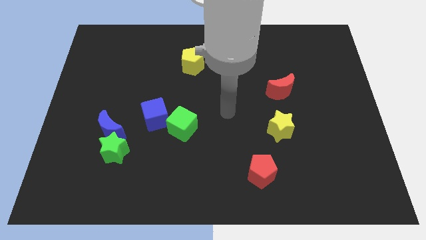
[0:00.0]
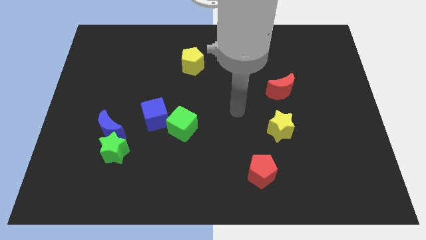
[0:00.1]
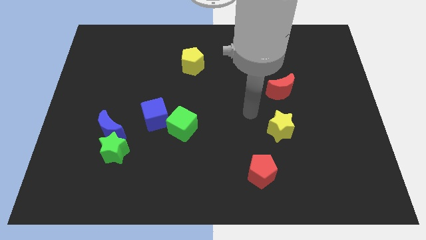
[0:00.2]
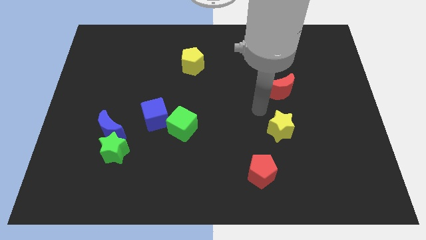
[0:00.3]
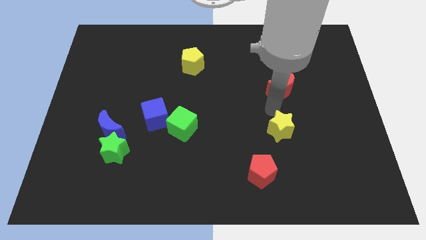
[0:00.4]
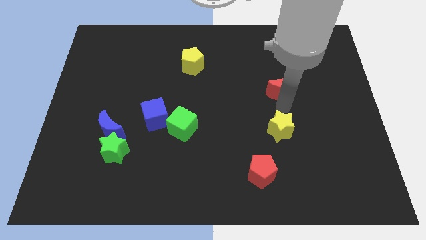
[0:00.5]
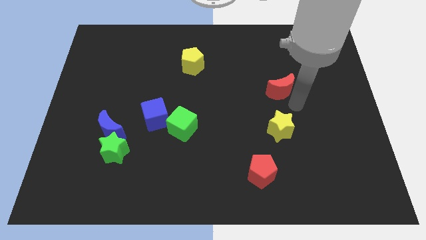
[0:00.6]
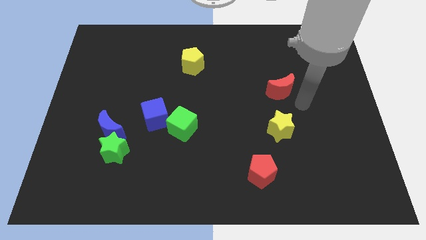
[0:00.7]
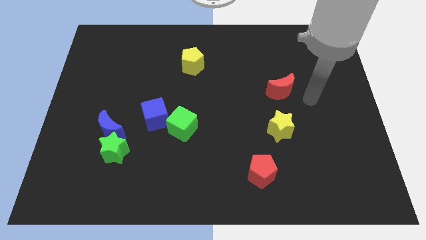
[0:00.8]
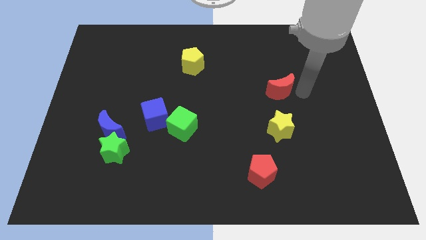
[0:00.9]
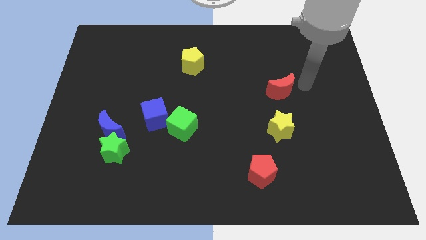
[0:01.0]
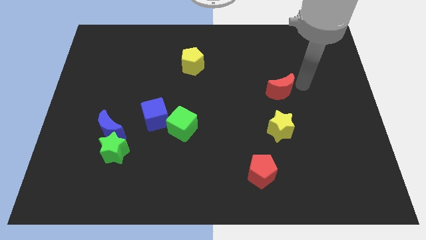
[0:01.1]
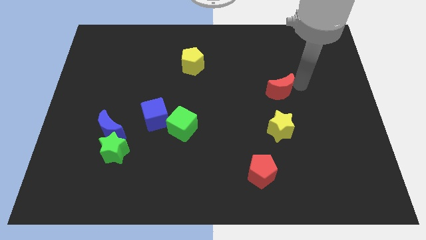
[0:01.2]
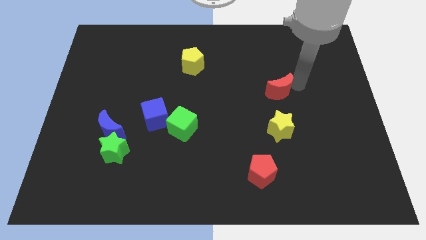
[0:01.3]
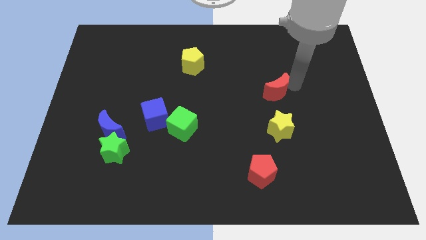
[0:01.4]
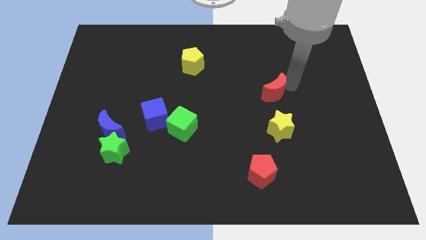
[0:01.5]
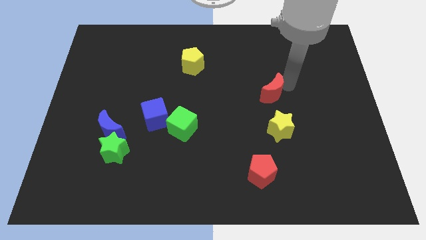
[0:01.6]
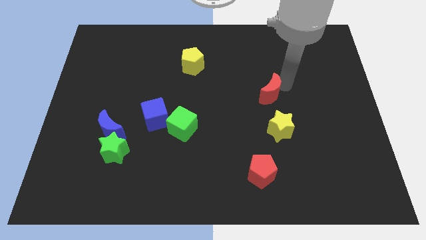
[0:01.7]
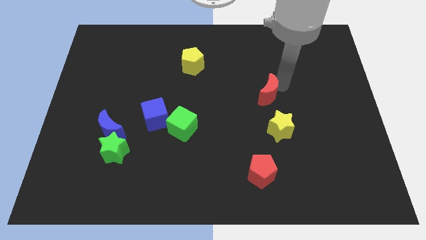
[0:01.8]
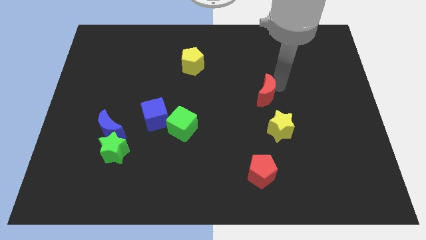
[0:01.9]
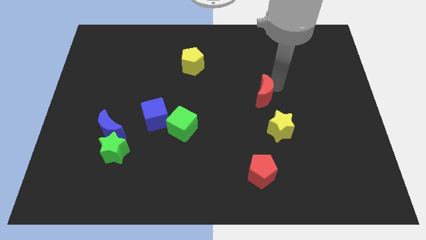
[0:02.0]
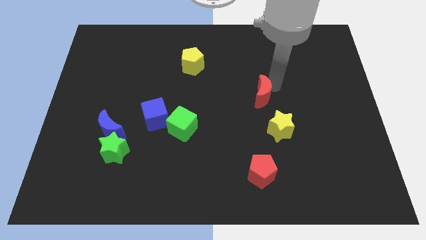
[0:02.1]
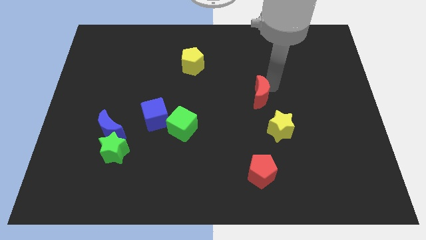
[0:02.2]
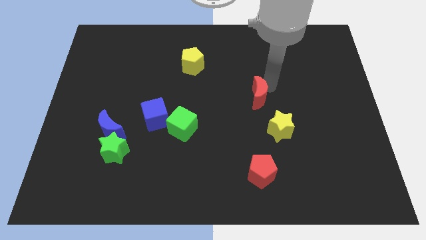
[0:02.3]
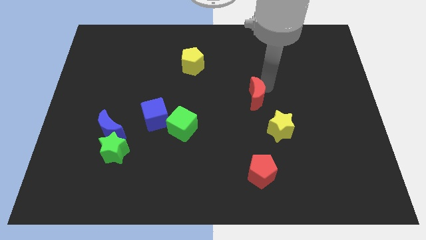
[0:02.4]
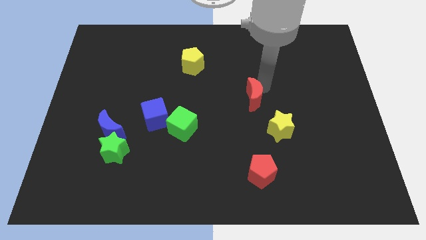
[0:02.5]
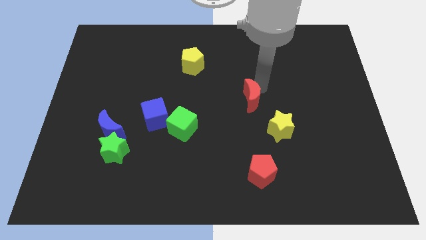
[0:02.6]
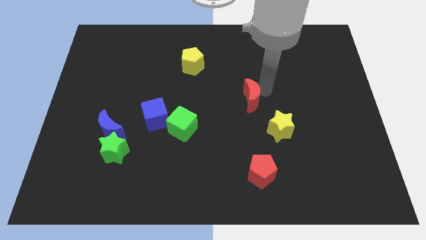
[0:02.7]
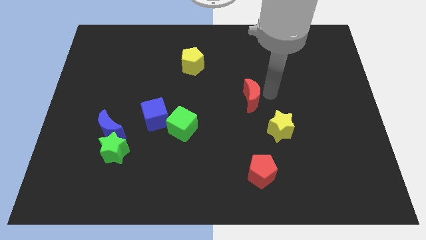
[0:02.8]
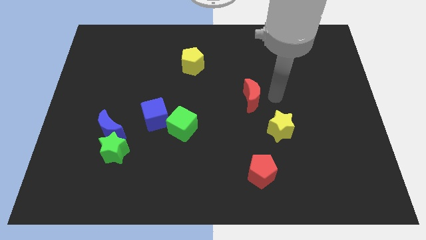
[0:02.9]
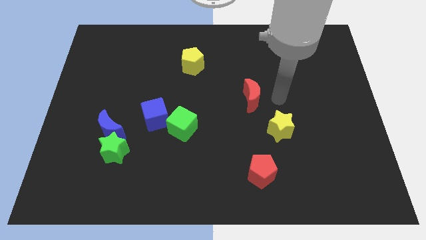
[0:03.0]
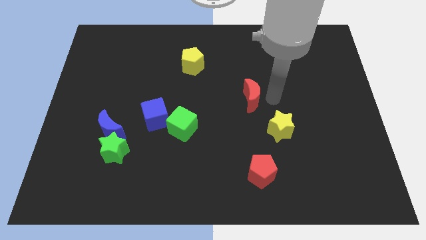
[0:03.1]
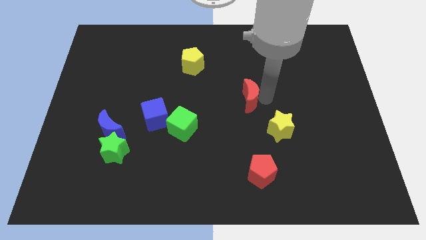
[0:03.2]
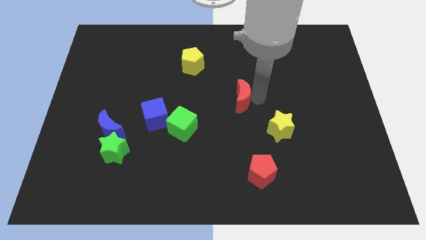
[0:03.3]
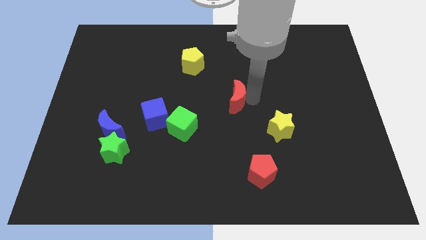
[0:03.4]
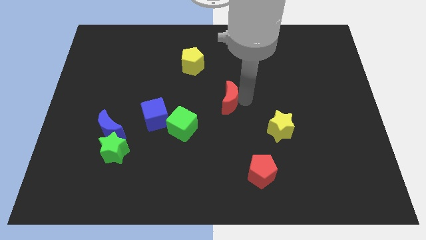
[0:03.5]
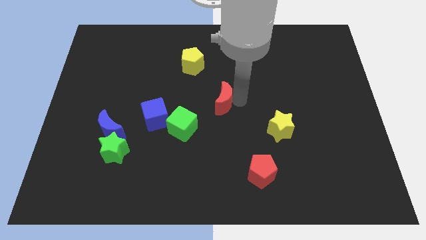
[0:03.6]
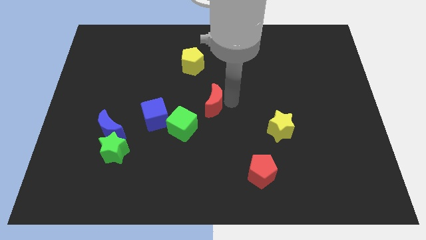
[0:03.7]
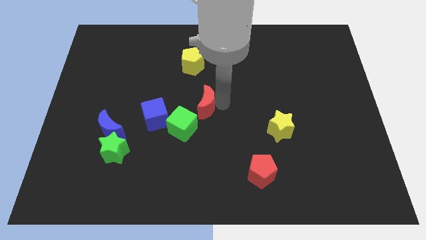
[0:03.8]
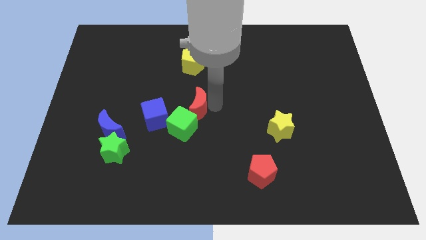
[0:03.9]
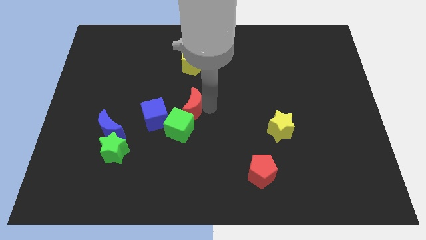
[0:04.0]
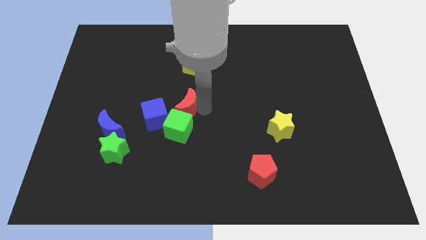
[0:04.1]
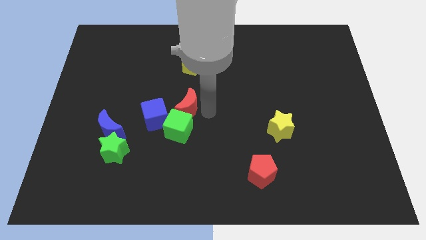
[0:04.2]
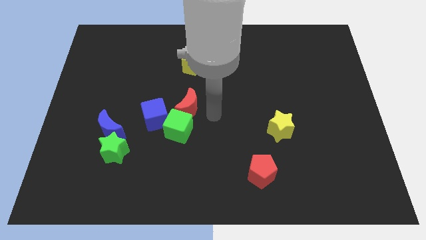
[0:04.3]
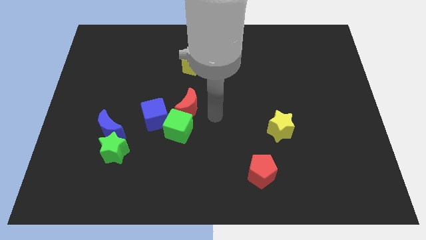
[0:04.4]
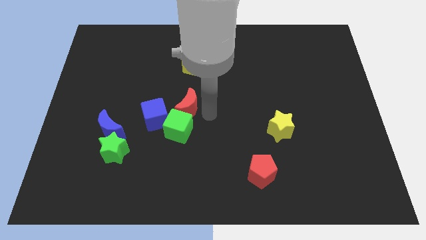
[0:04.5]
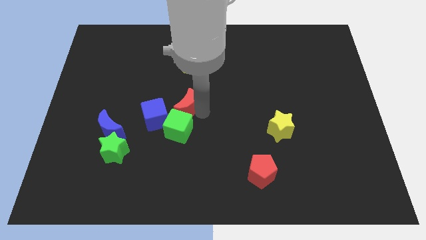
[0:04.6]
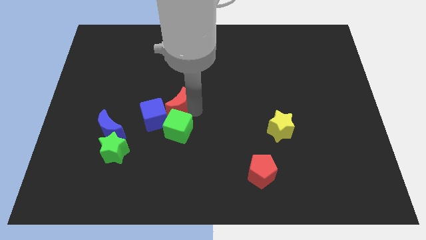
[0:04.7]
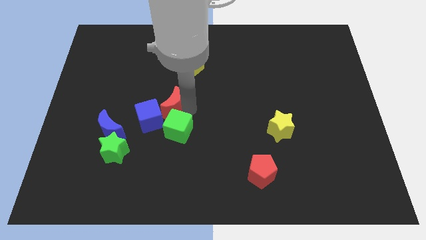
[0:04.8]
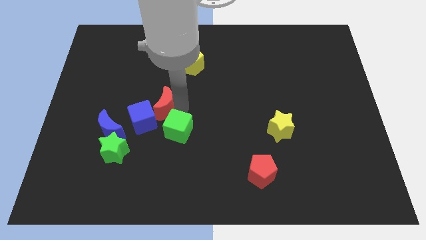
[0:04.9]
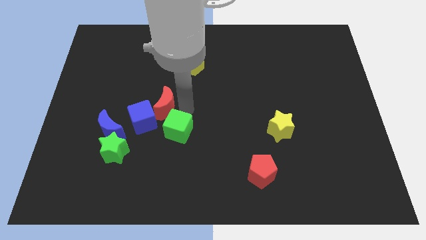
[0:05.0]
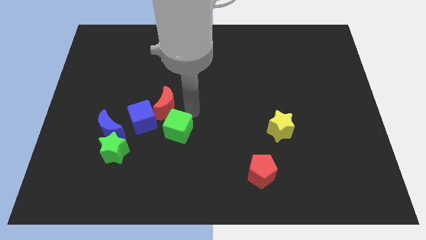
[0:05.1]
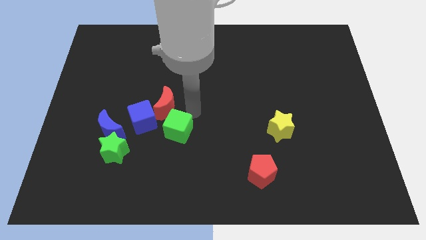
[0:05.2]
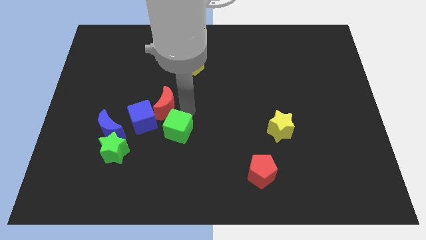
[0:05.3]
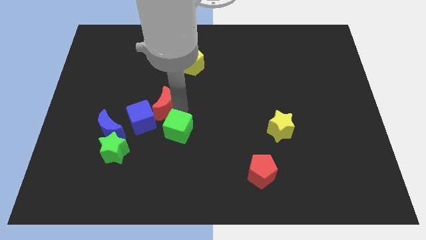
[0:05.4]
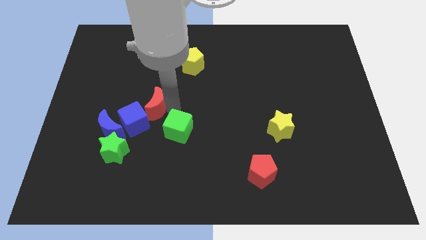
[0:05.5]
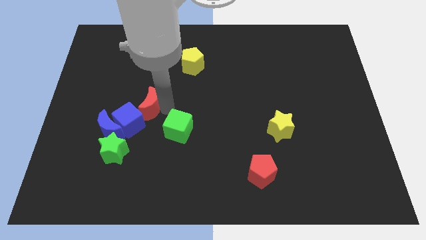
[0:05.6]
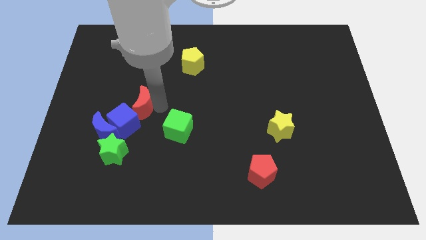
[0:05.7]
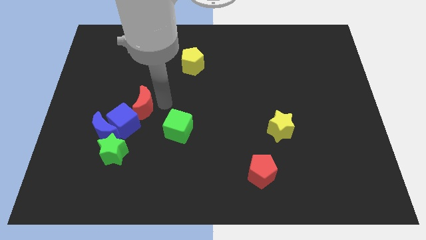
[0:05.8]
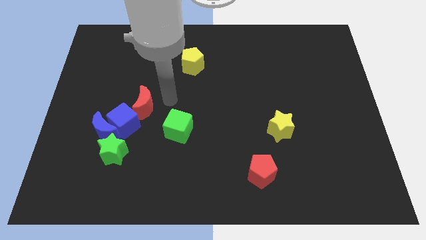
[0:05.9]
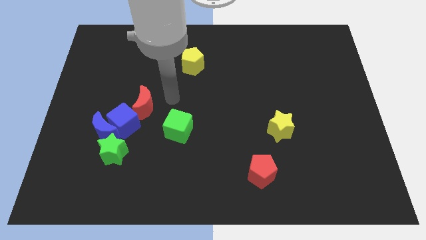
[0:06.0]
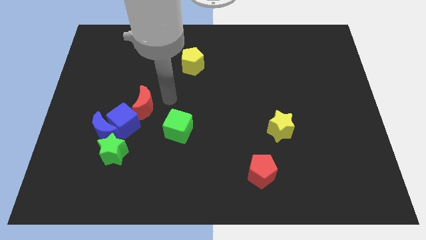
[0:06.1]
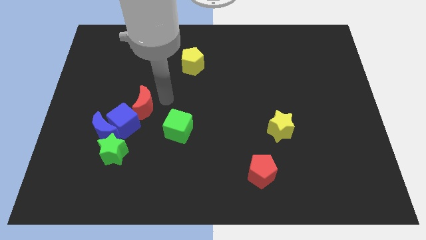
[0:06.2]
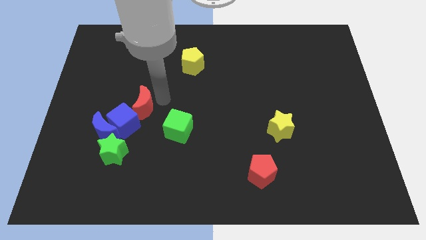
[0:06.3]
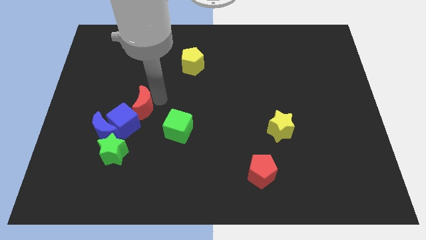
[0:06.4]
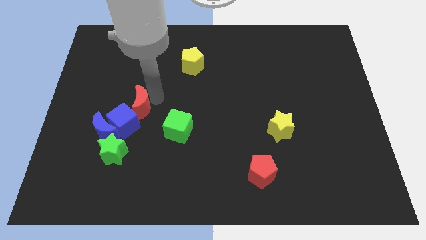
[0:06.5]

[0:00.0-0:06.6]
slide the red moon to the top side of the green star
